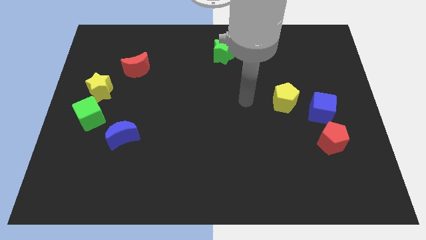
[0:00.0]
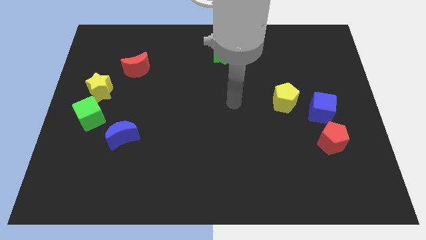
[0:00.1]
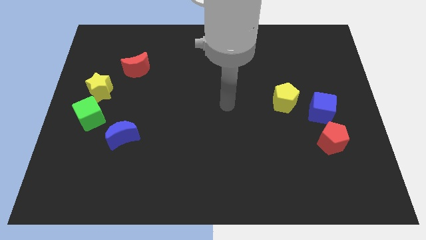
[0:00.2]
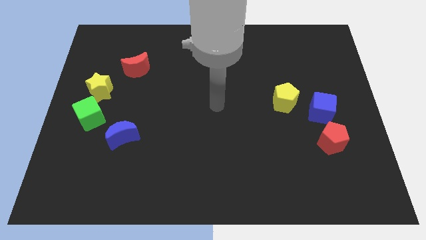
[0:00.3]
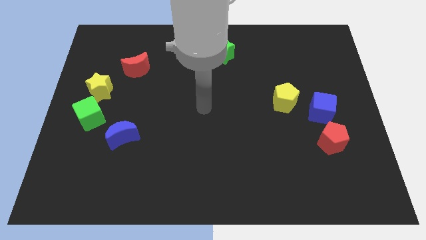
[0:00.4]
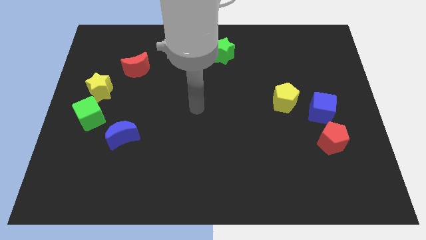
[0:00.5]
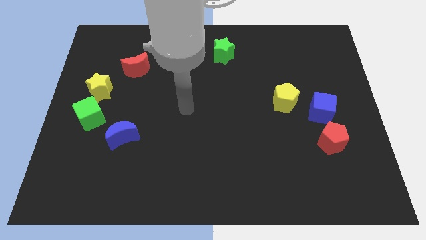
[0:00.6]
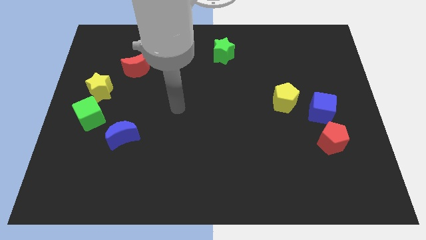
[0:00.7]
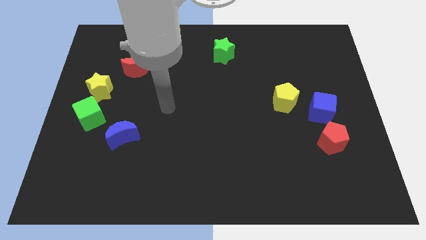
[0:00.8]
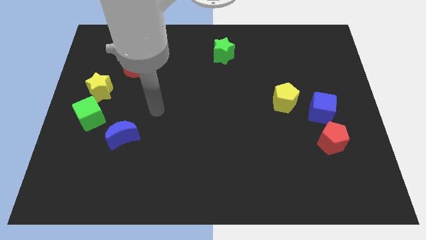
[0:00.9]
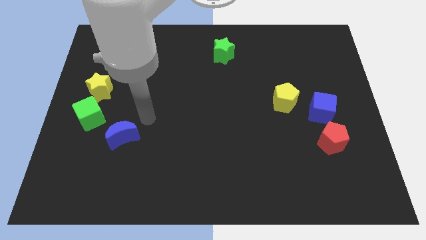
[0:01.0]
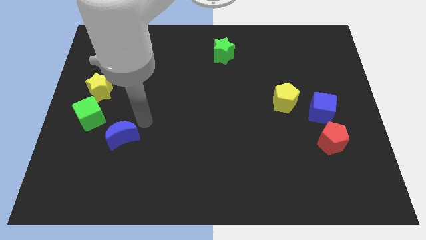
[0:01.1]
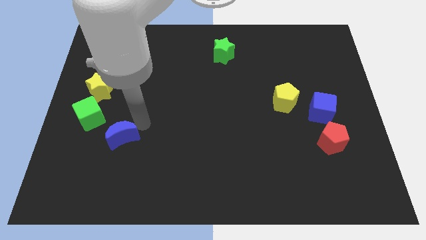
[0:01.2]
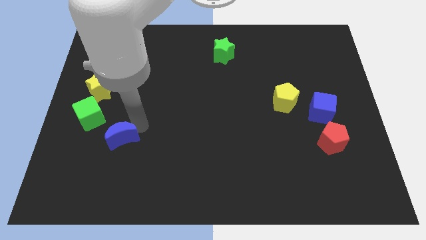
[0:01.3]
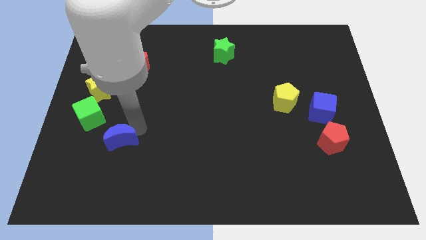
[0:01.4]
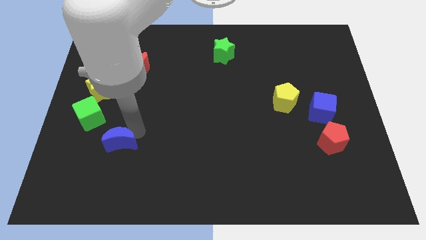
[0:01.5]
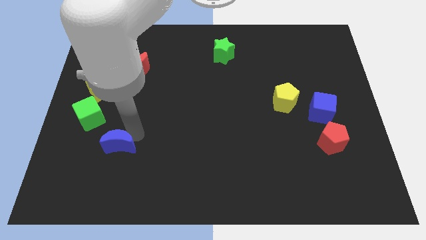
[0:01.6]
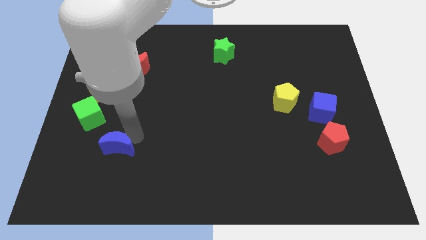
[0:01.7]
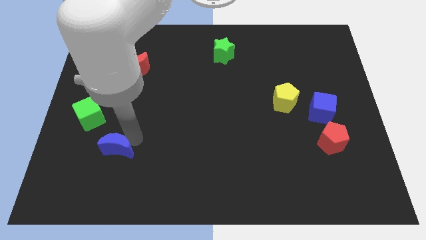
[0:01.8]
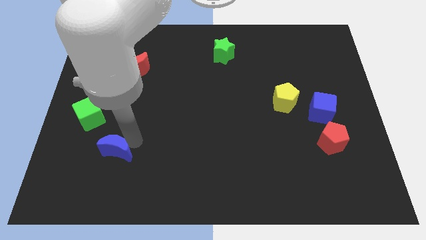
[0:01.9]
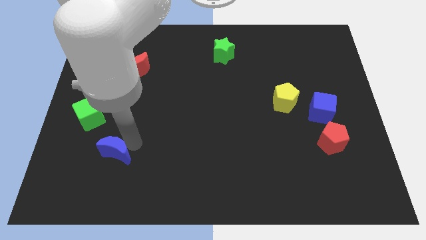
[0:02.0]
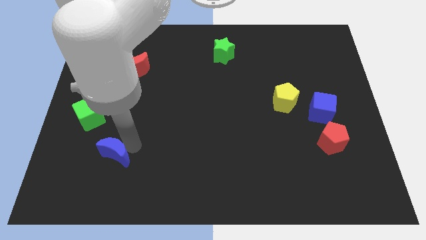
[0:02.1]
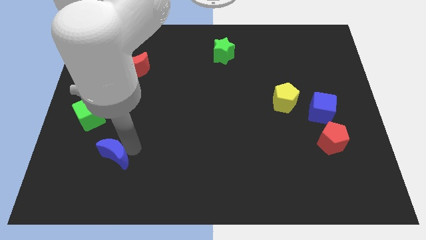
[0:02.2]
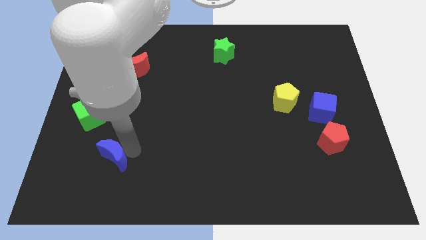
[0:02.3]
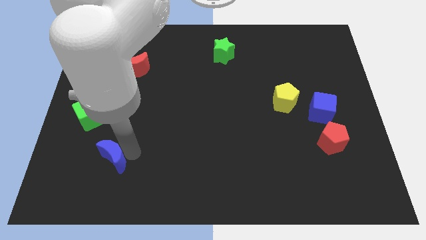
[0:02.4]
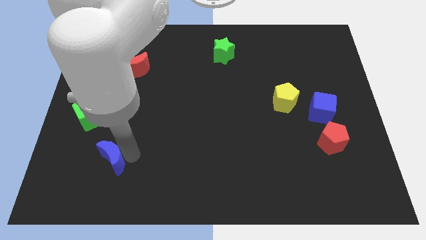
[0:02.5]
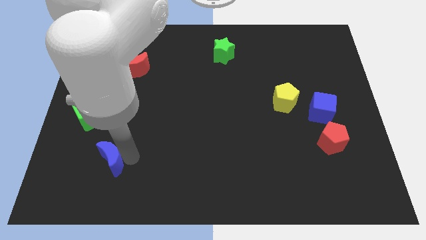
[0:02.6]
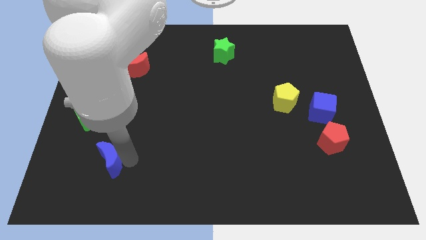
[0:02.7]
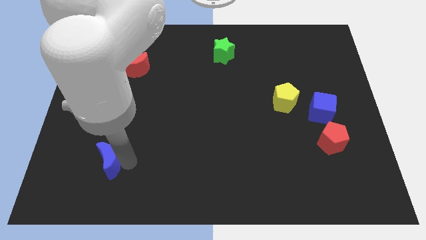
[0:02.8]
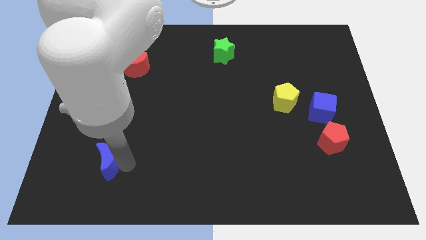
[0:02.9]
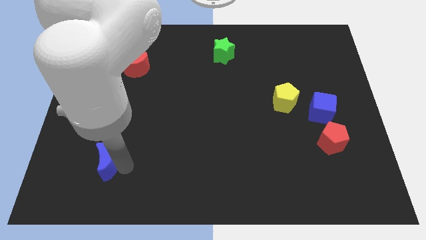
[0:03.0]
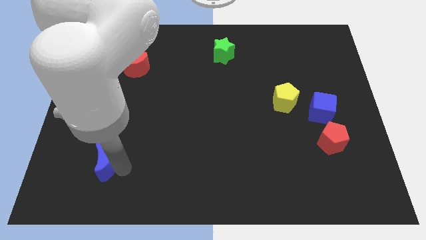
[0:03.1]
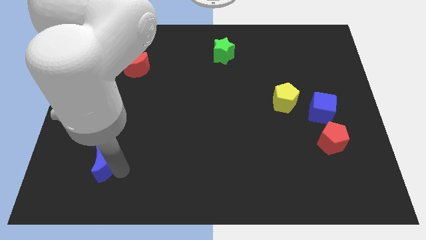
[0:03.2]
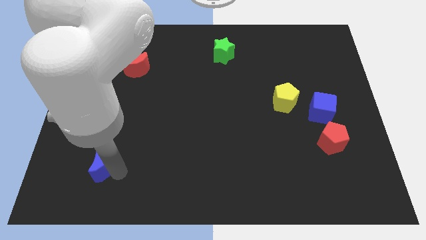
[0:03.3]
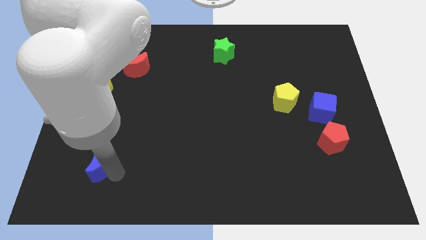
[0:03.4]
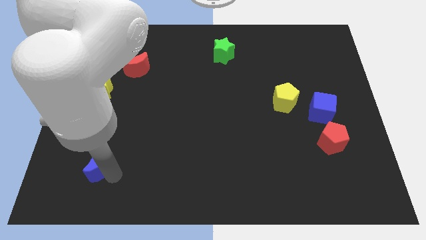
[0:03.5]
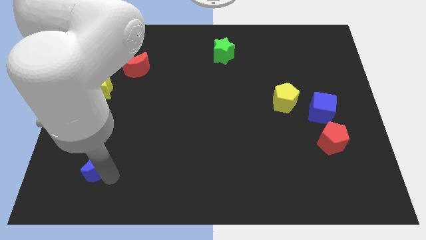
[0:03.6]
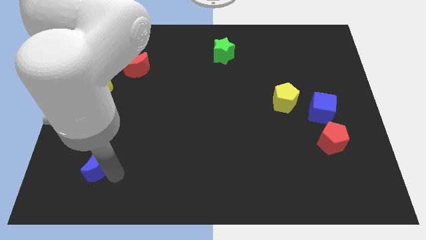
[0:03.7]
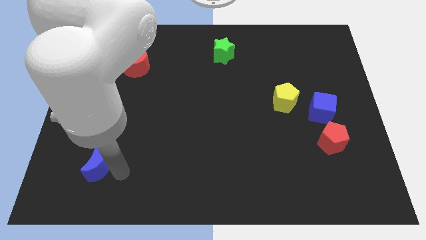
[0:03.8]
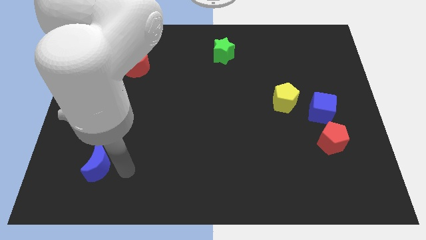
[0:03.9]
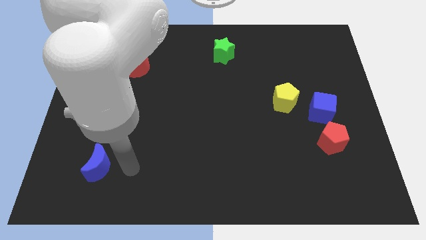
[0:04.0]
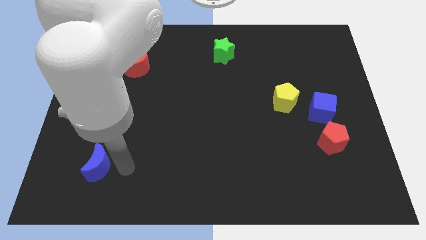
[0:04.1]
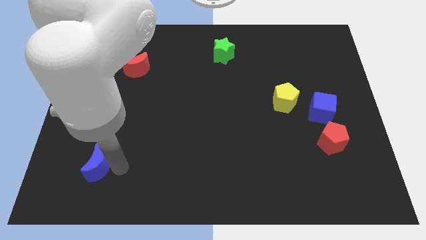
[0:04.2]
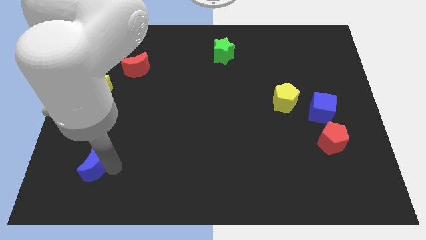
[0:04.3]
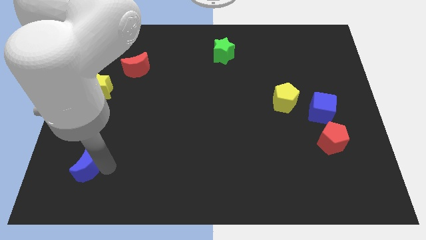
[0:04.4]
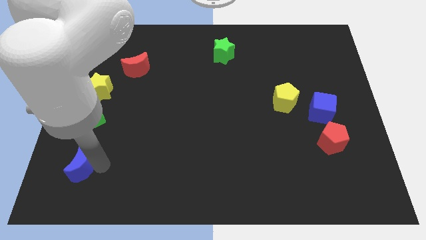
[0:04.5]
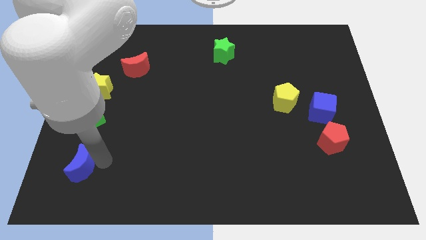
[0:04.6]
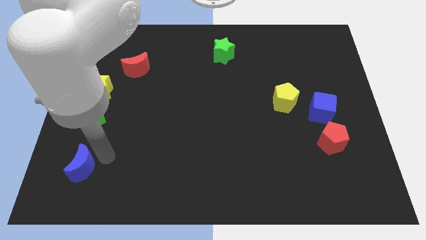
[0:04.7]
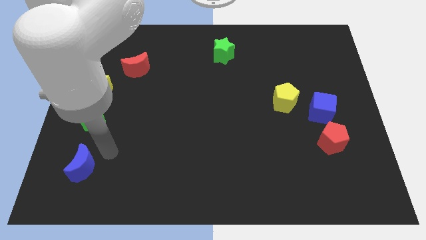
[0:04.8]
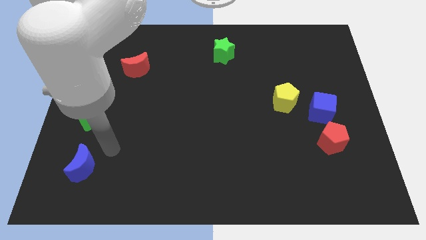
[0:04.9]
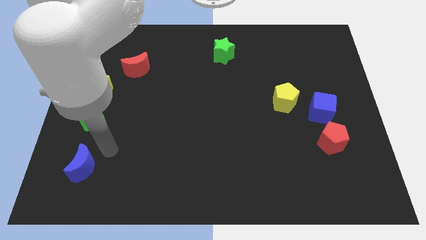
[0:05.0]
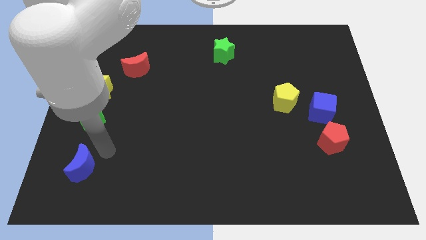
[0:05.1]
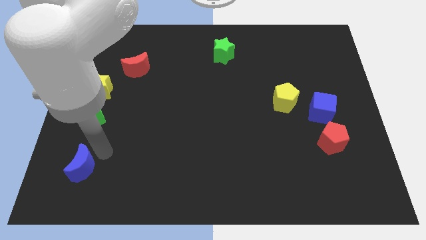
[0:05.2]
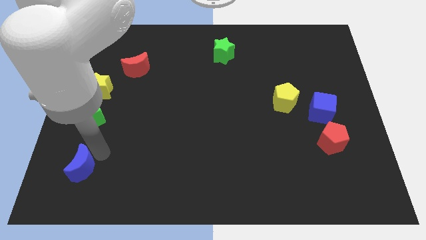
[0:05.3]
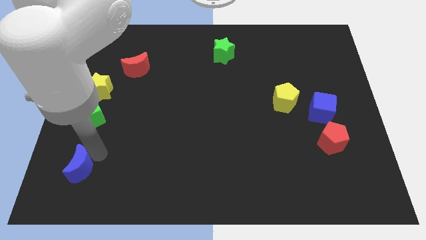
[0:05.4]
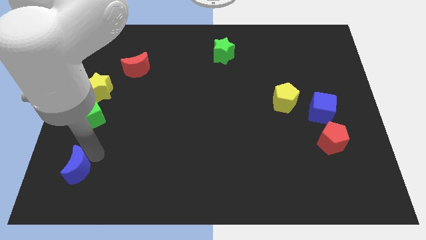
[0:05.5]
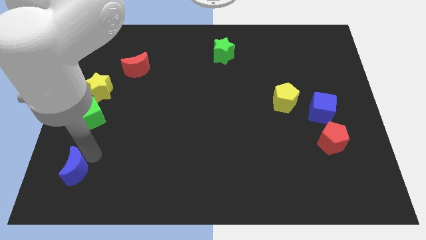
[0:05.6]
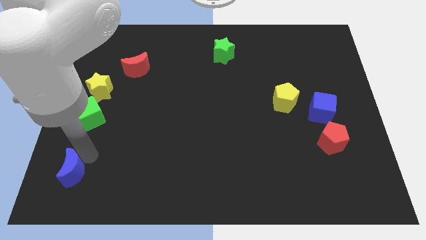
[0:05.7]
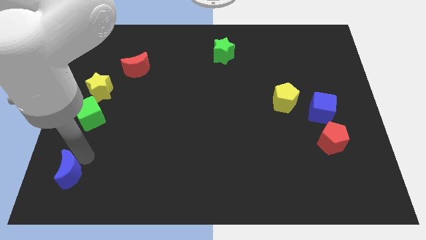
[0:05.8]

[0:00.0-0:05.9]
slide the blue moon to the bottom left corner
